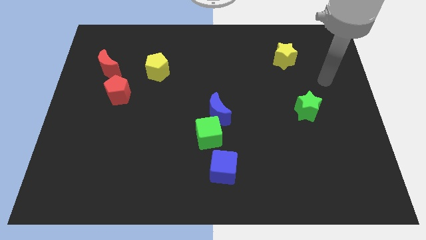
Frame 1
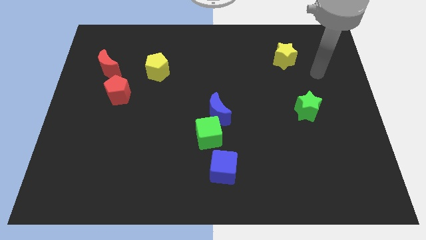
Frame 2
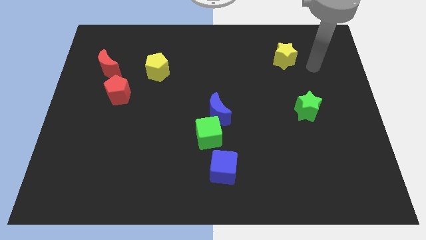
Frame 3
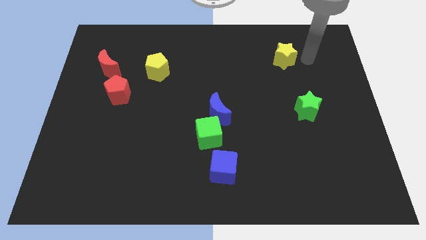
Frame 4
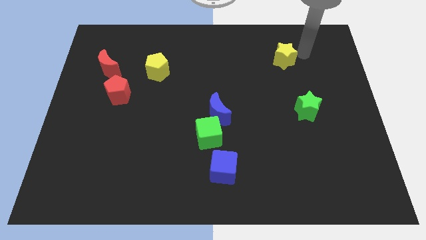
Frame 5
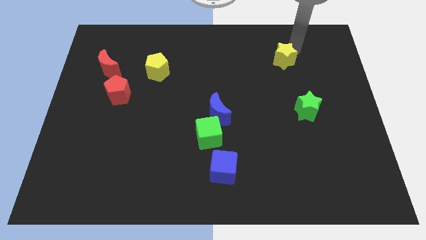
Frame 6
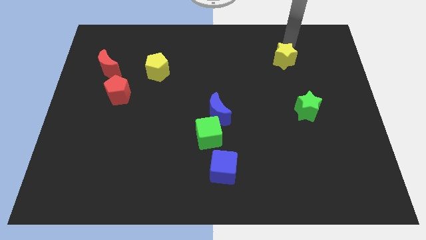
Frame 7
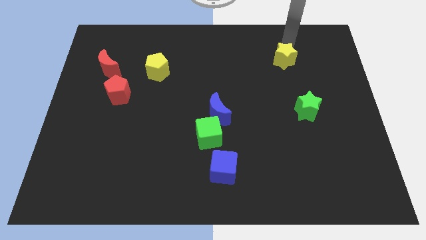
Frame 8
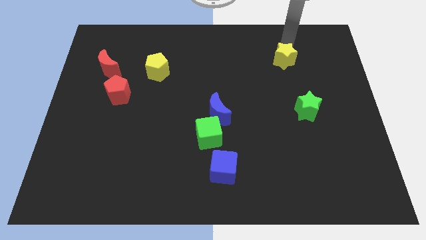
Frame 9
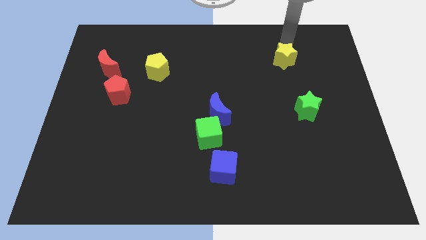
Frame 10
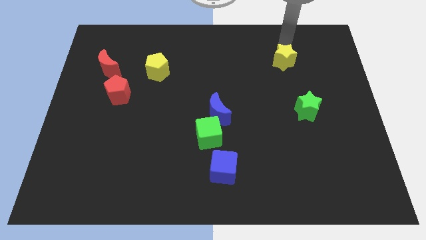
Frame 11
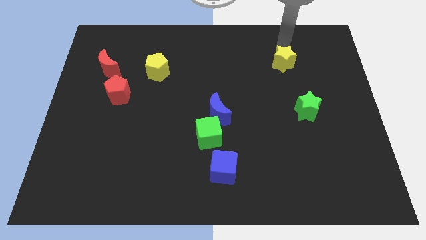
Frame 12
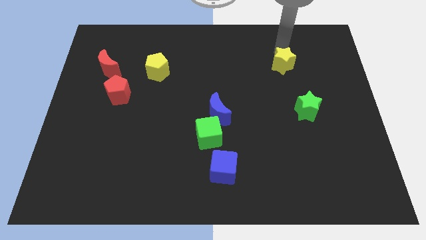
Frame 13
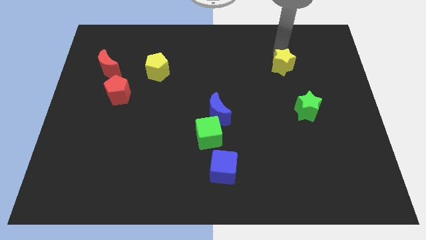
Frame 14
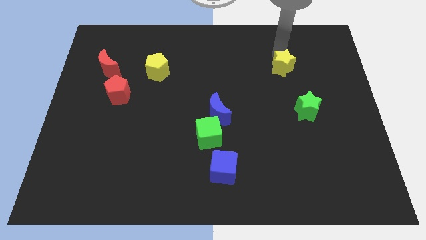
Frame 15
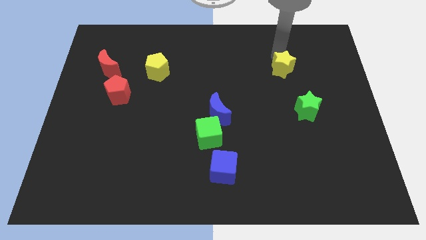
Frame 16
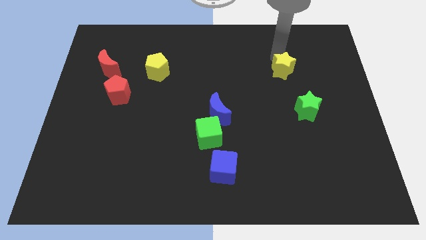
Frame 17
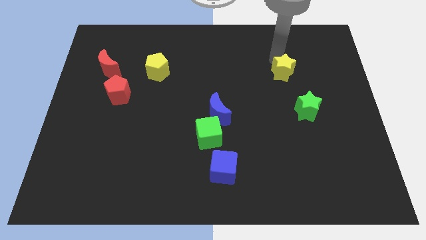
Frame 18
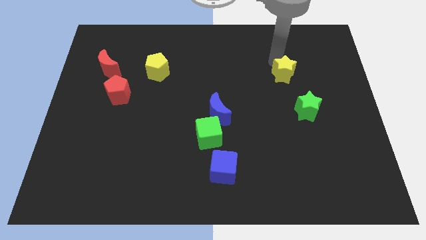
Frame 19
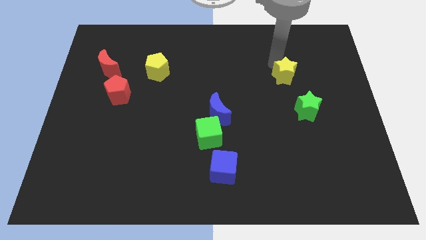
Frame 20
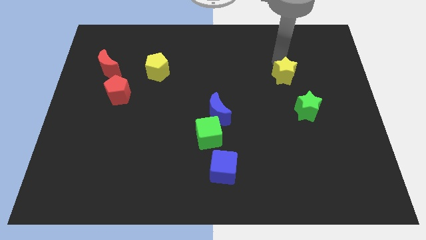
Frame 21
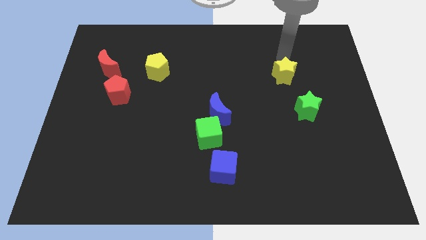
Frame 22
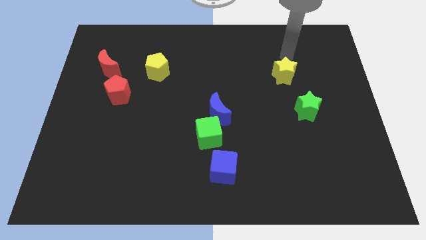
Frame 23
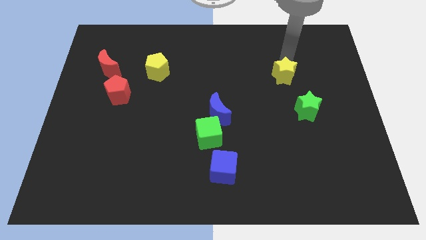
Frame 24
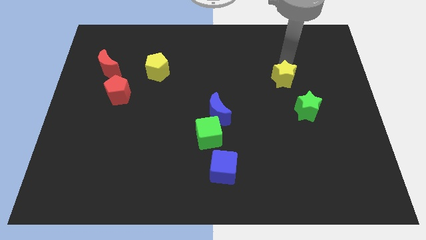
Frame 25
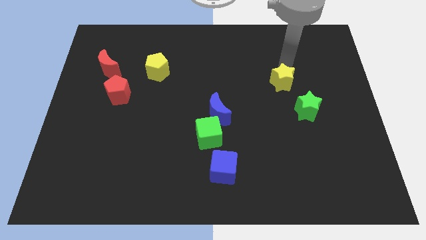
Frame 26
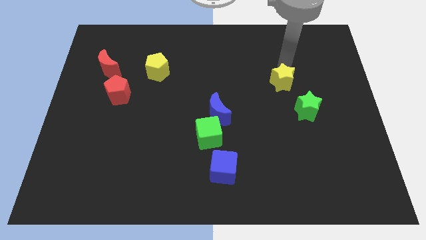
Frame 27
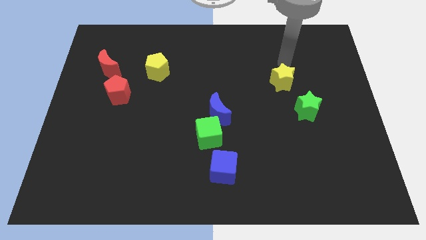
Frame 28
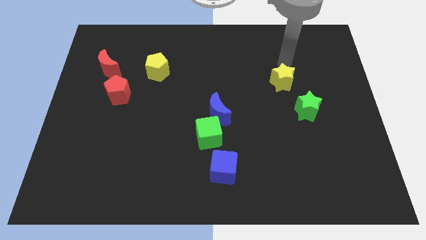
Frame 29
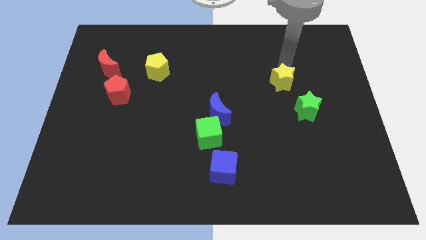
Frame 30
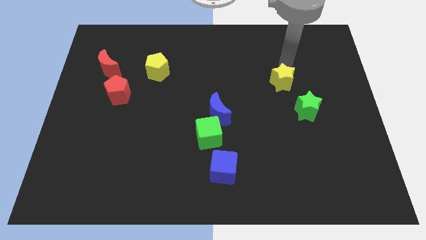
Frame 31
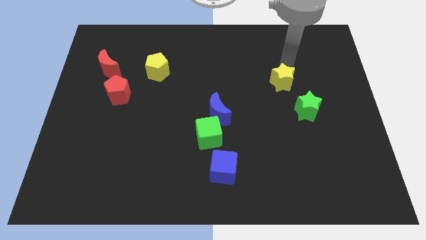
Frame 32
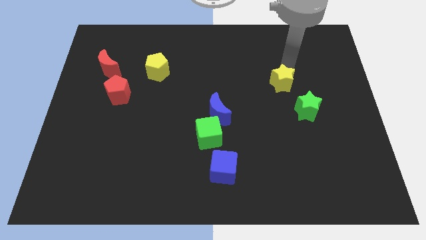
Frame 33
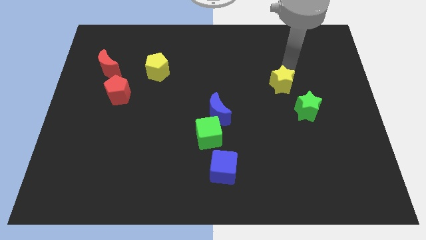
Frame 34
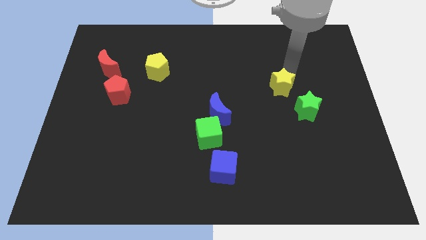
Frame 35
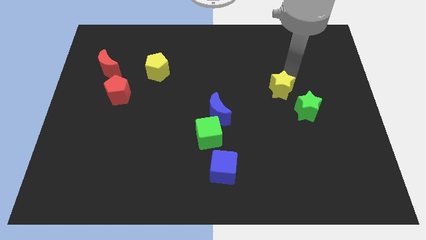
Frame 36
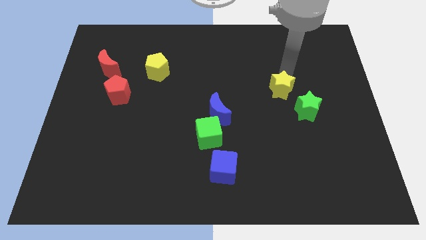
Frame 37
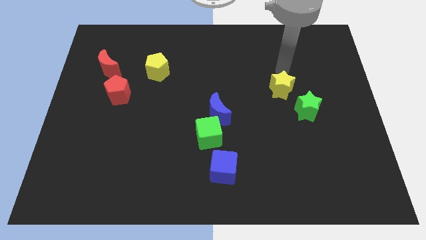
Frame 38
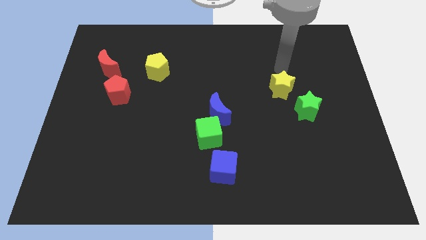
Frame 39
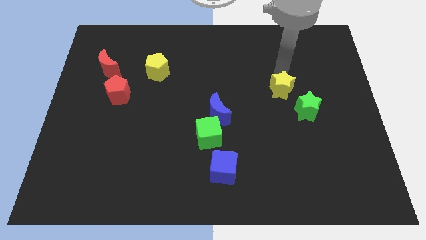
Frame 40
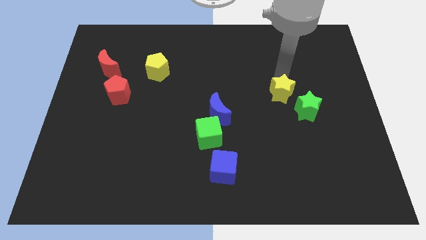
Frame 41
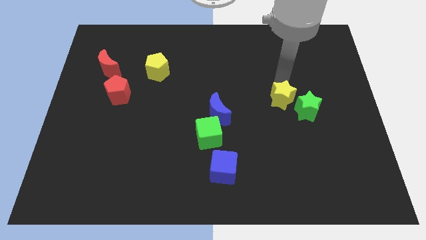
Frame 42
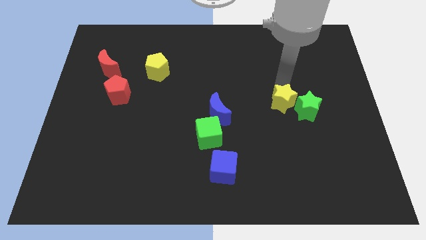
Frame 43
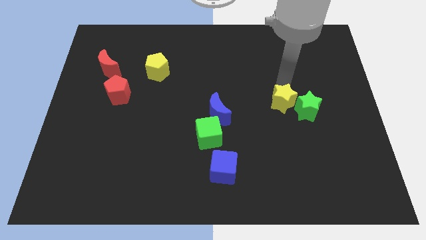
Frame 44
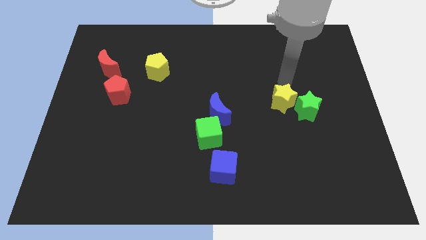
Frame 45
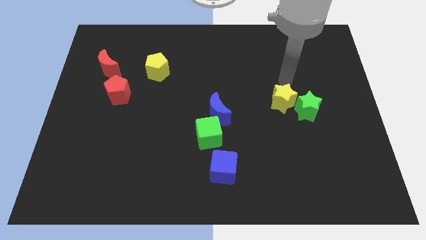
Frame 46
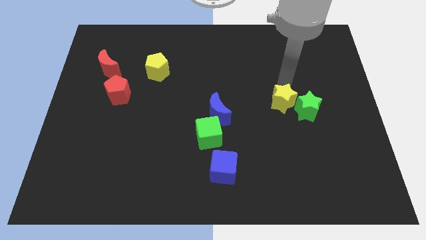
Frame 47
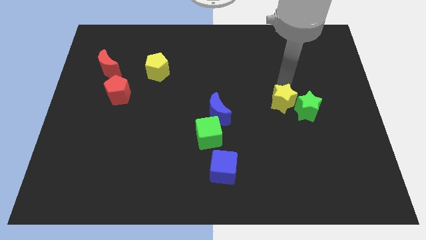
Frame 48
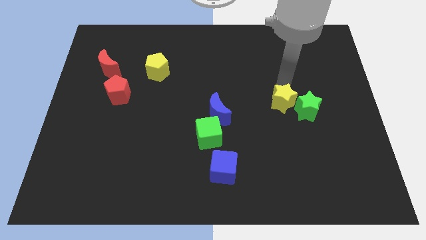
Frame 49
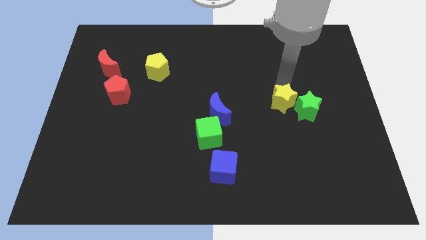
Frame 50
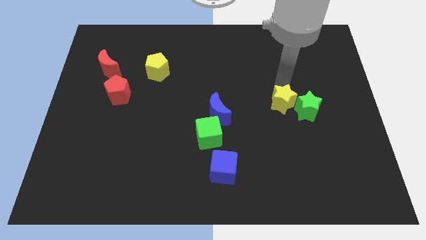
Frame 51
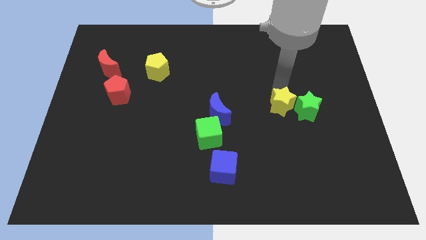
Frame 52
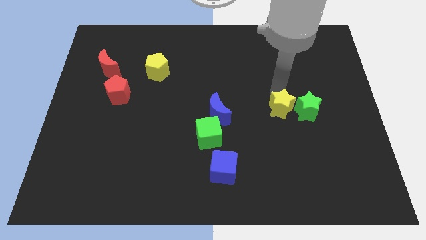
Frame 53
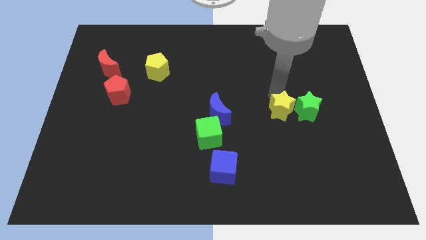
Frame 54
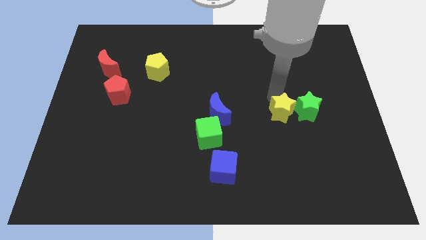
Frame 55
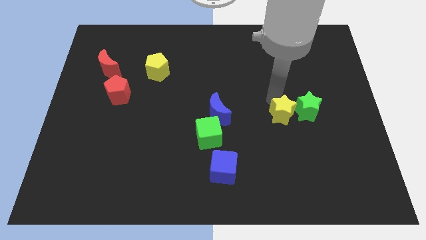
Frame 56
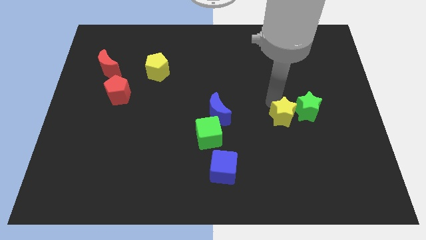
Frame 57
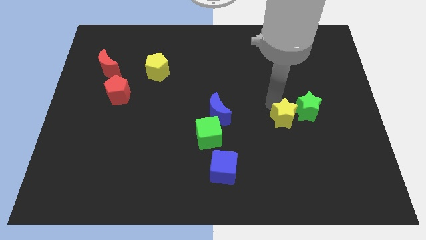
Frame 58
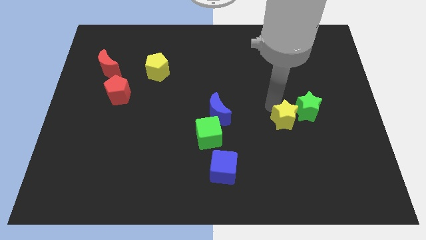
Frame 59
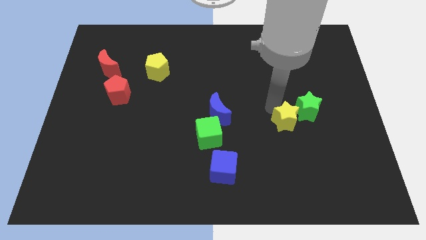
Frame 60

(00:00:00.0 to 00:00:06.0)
move the yellow star downwards

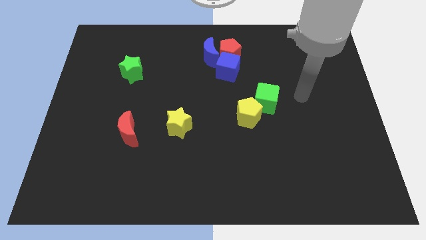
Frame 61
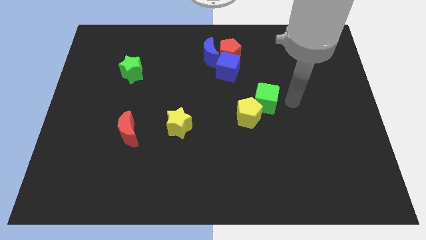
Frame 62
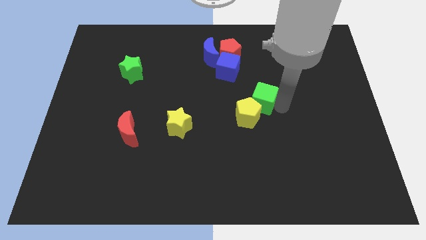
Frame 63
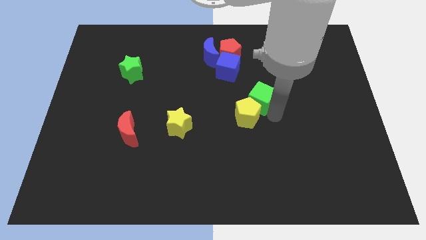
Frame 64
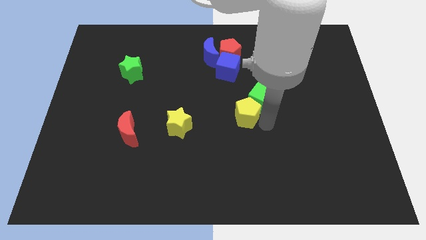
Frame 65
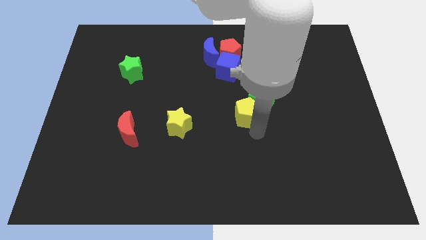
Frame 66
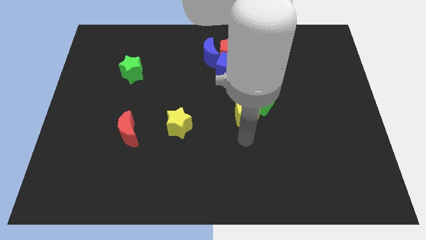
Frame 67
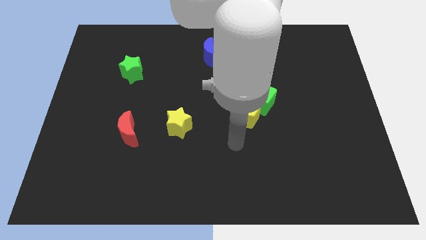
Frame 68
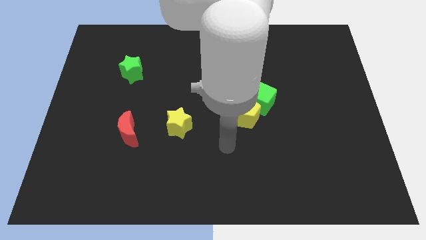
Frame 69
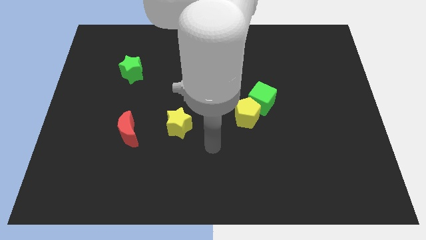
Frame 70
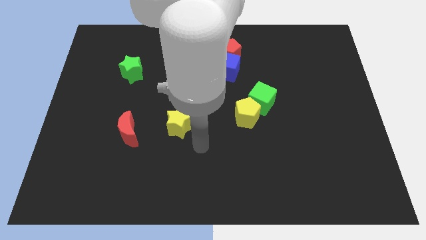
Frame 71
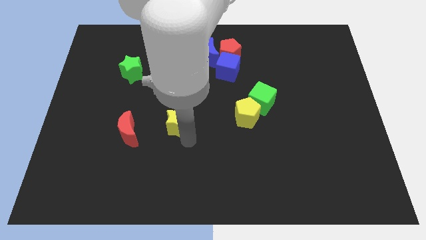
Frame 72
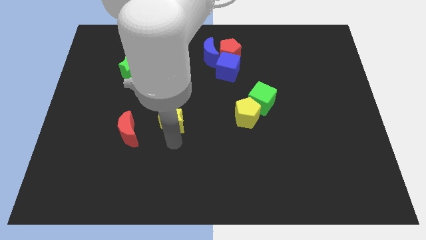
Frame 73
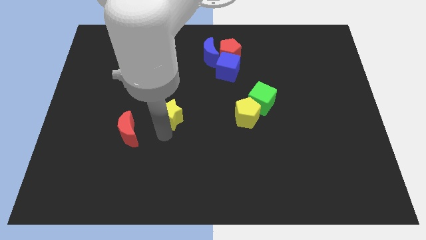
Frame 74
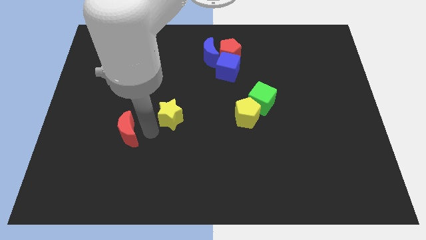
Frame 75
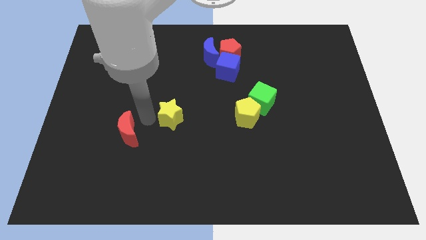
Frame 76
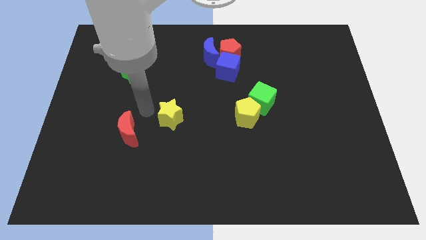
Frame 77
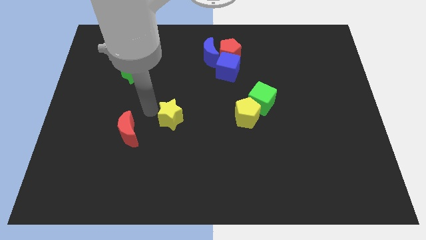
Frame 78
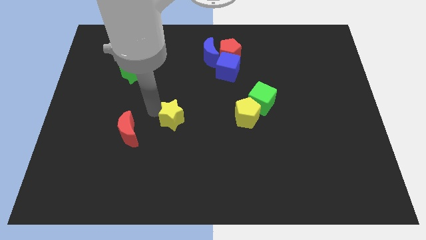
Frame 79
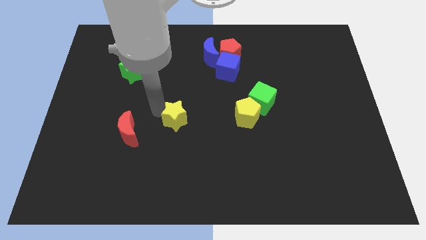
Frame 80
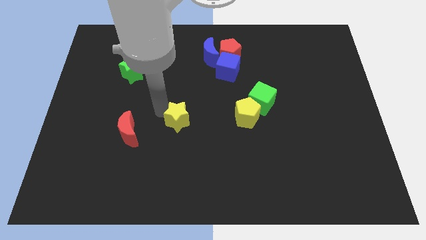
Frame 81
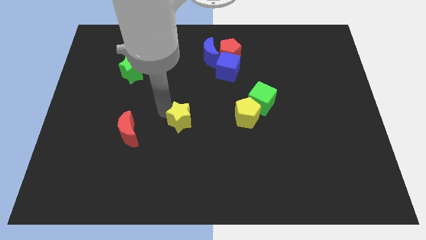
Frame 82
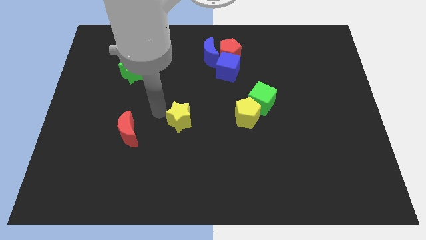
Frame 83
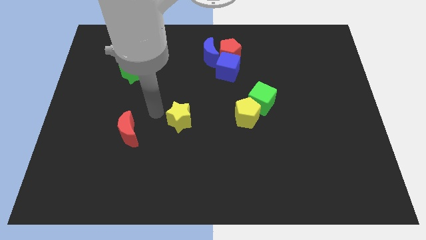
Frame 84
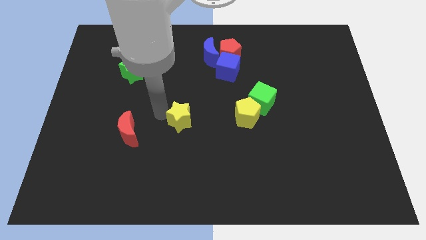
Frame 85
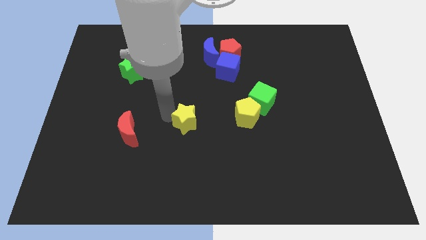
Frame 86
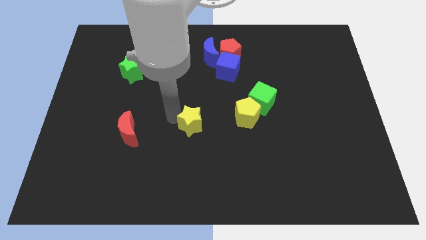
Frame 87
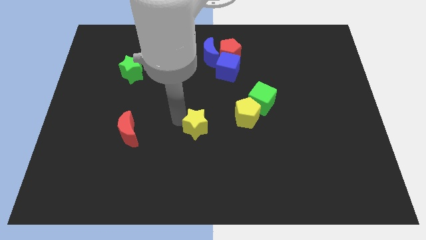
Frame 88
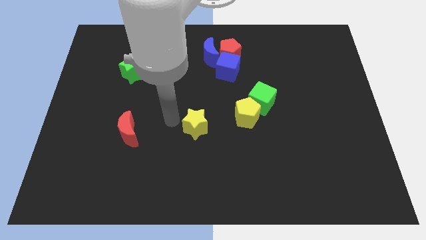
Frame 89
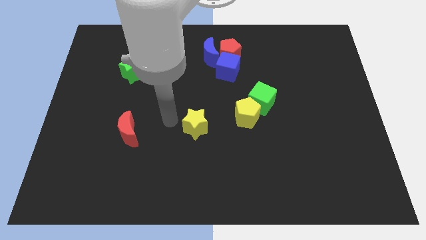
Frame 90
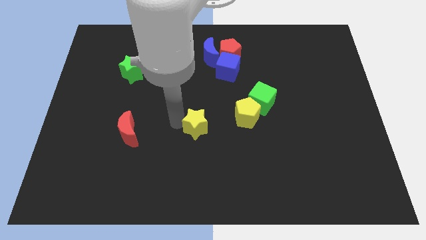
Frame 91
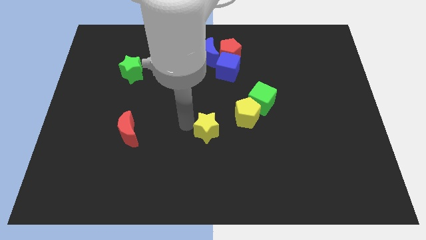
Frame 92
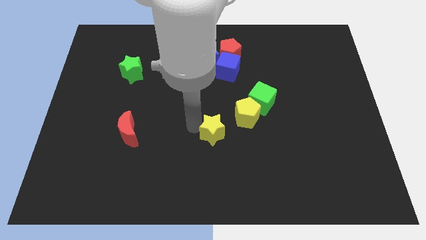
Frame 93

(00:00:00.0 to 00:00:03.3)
push the yellow star a little to the right
